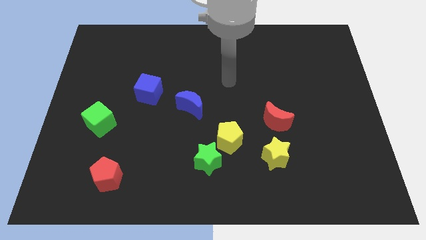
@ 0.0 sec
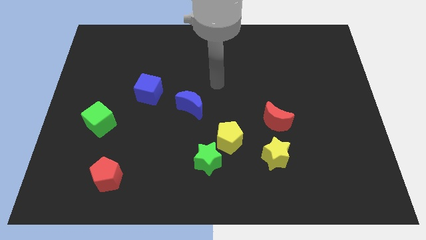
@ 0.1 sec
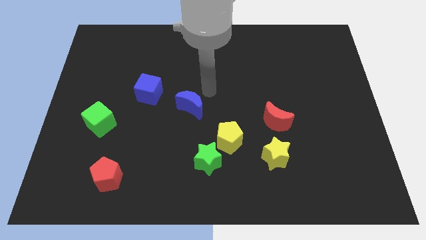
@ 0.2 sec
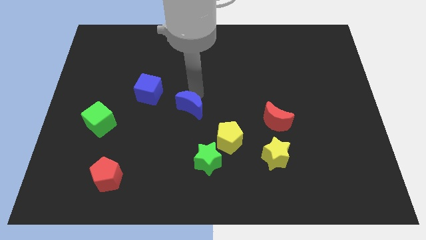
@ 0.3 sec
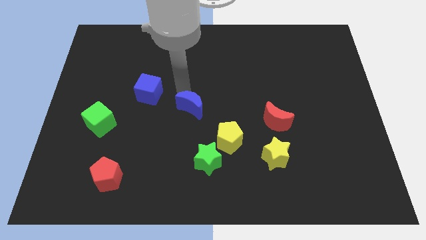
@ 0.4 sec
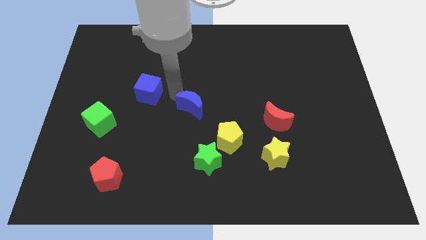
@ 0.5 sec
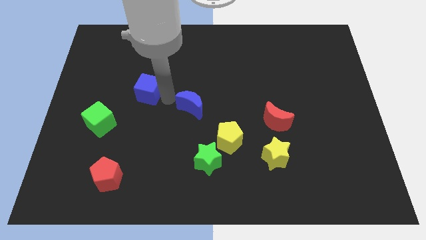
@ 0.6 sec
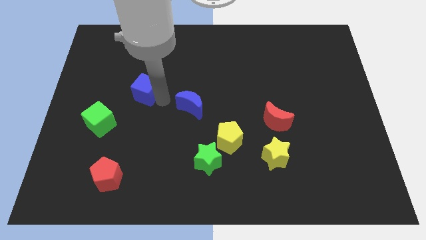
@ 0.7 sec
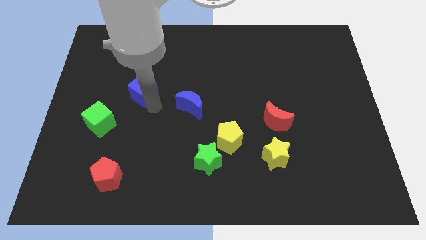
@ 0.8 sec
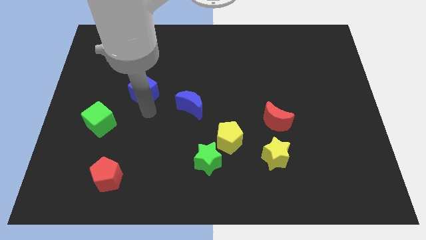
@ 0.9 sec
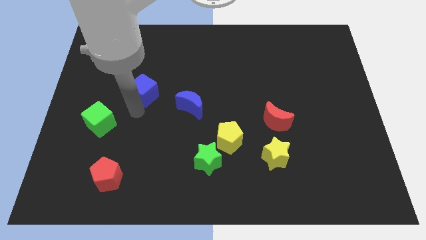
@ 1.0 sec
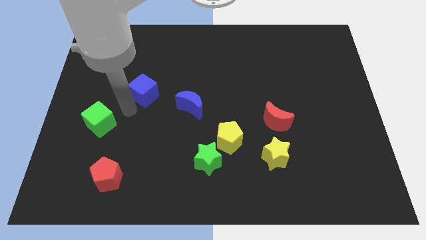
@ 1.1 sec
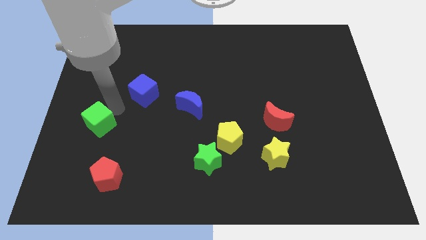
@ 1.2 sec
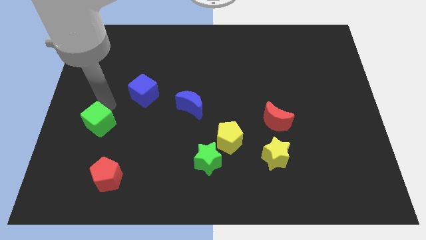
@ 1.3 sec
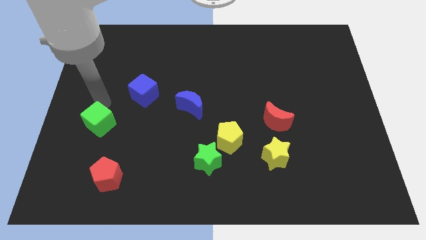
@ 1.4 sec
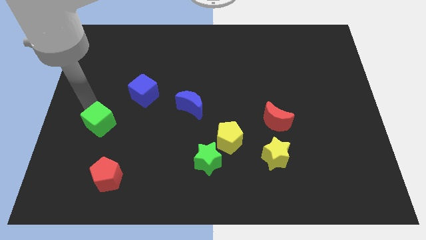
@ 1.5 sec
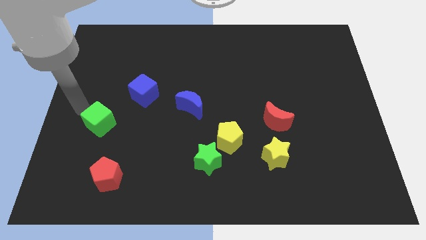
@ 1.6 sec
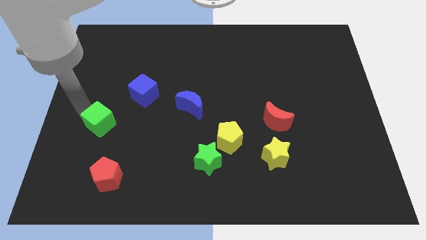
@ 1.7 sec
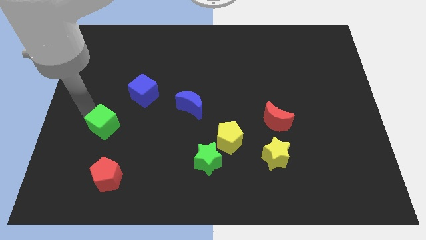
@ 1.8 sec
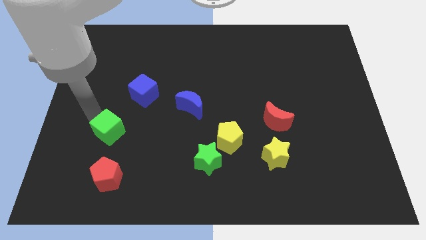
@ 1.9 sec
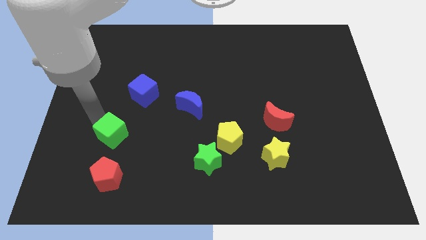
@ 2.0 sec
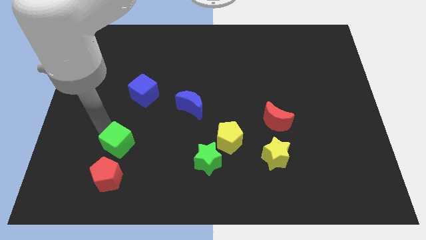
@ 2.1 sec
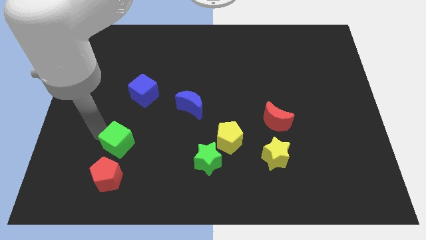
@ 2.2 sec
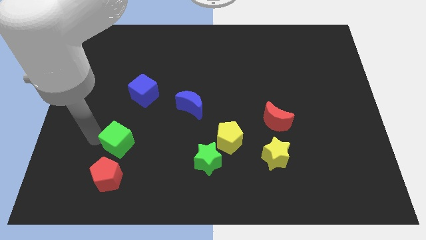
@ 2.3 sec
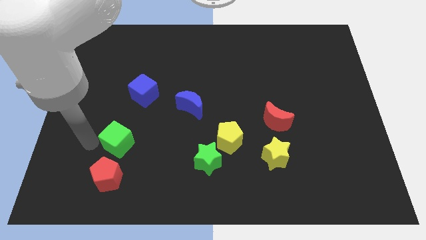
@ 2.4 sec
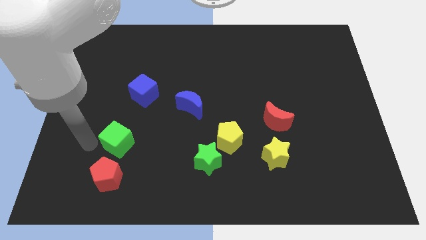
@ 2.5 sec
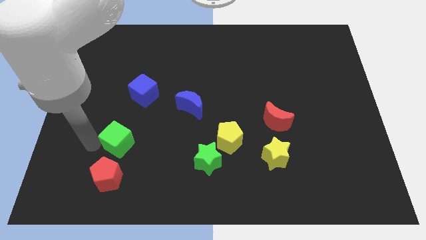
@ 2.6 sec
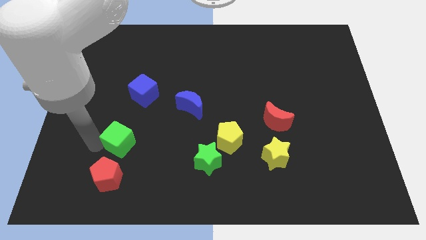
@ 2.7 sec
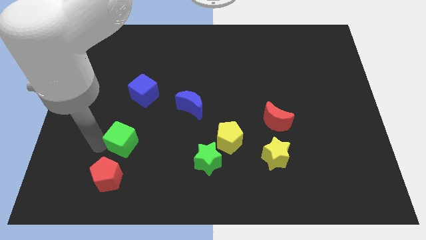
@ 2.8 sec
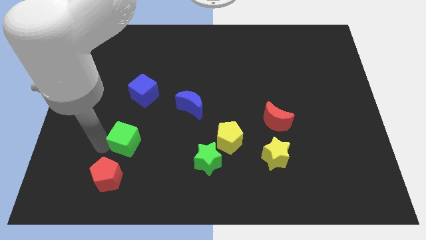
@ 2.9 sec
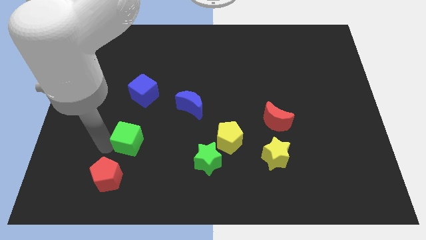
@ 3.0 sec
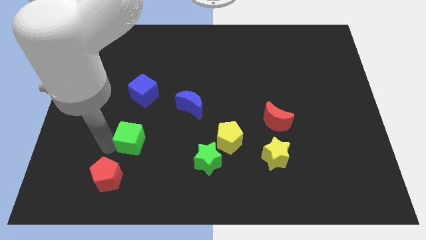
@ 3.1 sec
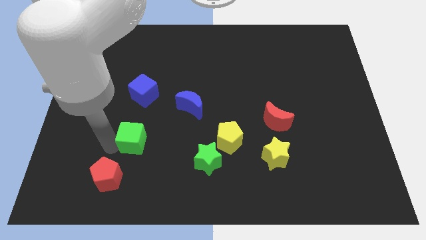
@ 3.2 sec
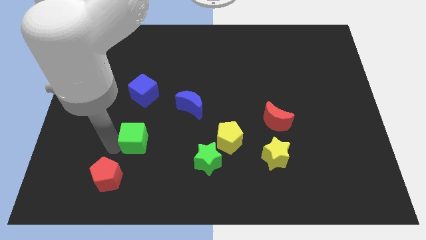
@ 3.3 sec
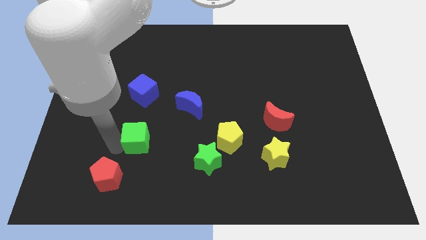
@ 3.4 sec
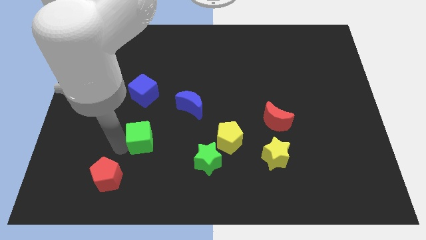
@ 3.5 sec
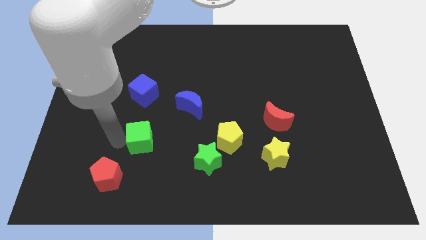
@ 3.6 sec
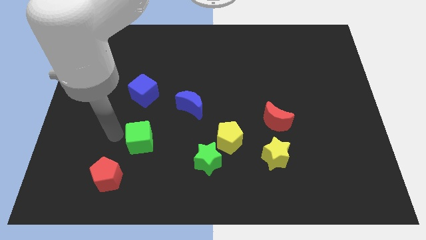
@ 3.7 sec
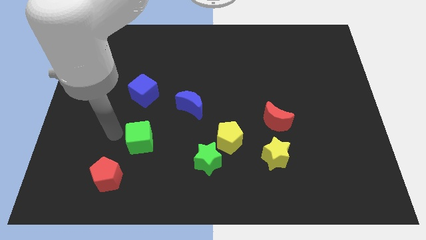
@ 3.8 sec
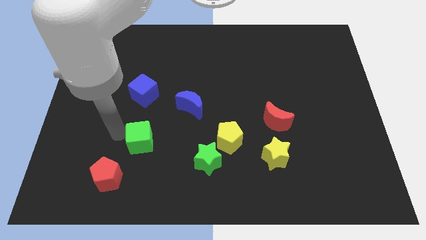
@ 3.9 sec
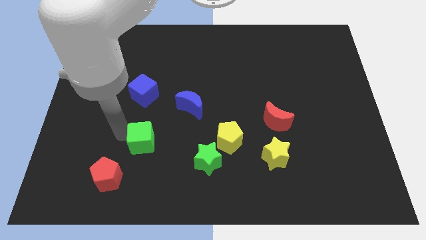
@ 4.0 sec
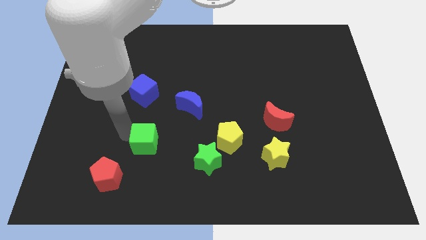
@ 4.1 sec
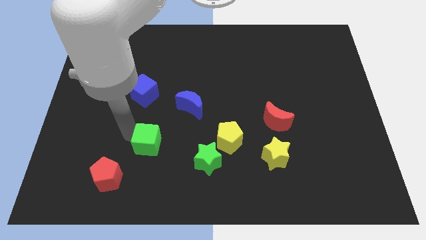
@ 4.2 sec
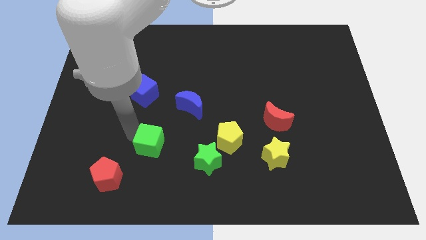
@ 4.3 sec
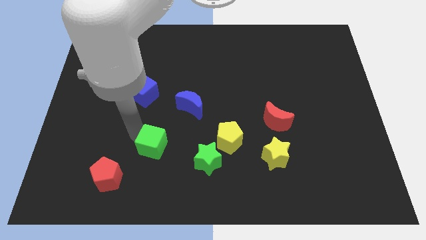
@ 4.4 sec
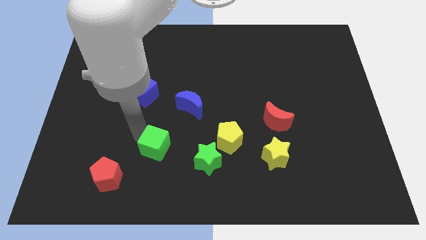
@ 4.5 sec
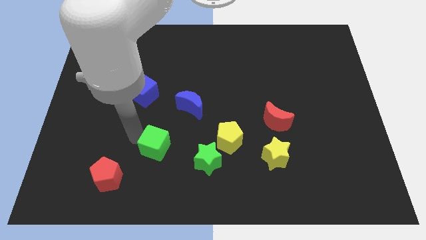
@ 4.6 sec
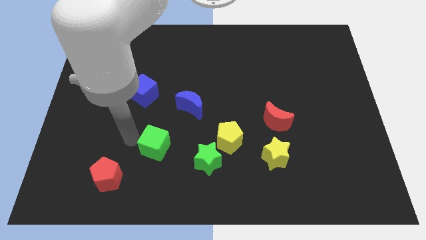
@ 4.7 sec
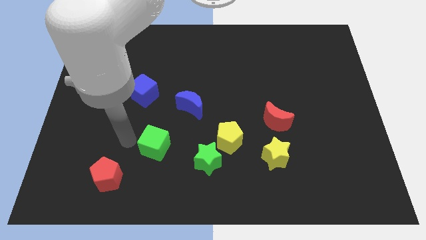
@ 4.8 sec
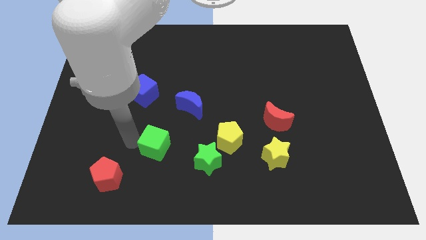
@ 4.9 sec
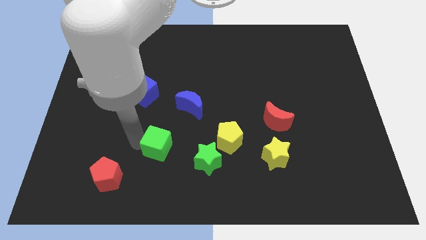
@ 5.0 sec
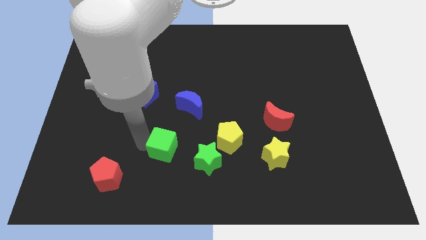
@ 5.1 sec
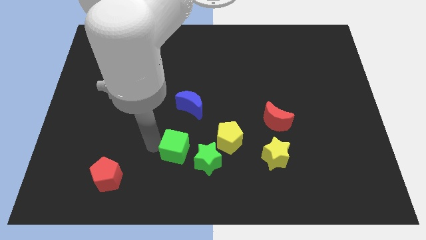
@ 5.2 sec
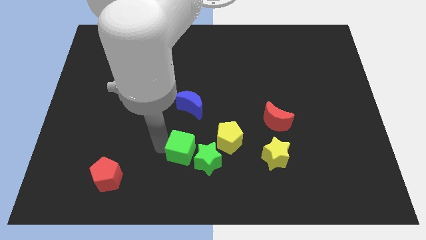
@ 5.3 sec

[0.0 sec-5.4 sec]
move the green cube next to the green star

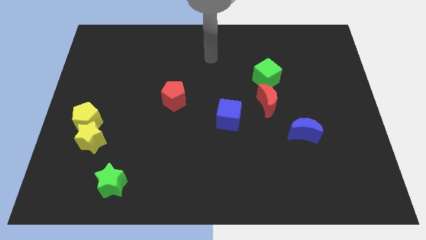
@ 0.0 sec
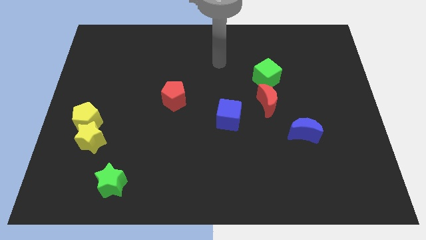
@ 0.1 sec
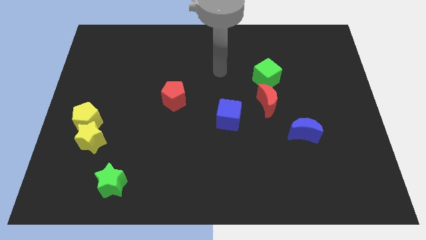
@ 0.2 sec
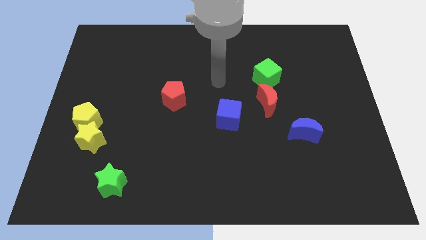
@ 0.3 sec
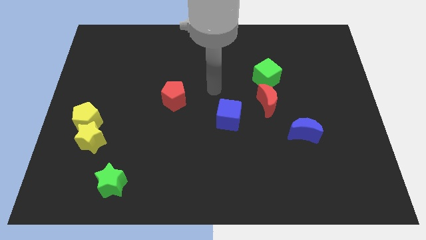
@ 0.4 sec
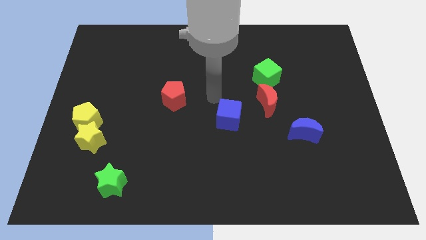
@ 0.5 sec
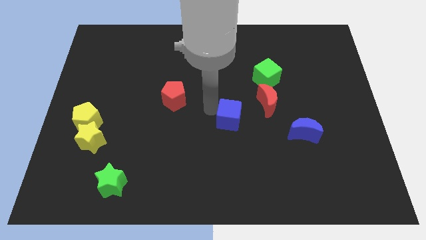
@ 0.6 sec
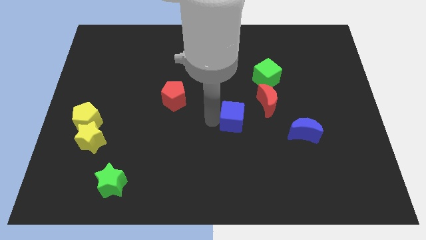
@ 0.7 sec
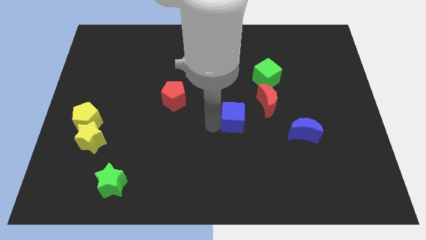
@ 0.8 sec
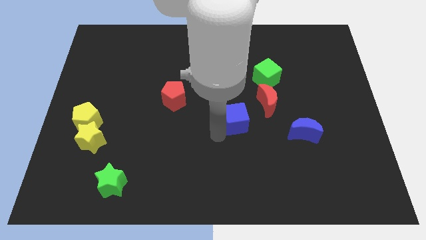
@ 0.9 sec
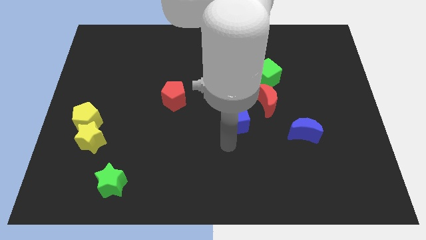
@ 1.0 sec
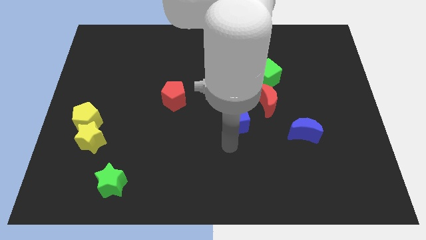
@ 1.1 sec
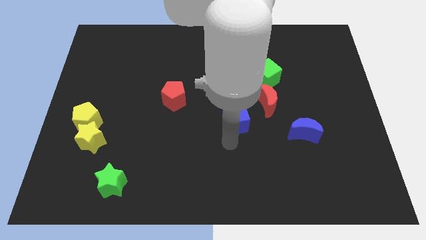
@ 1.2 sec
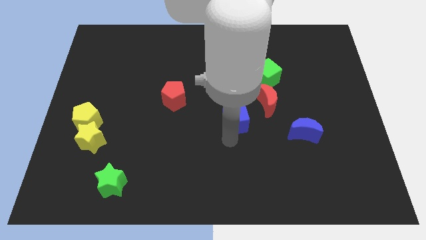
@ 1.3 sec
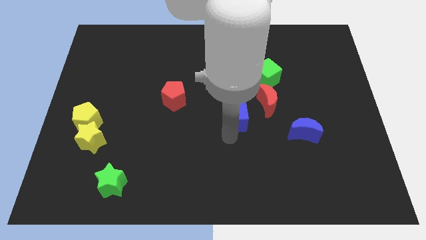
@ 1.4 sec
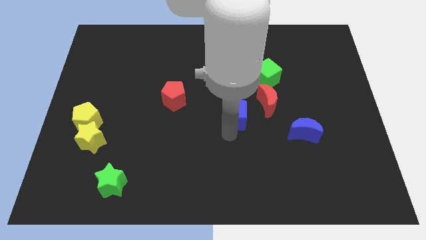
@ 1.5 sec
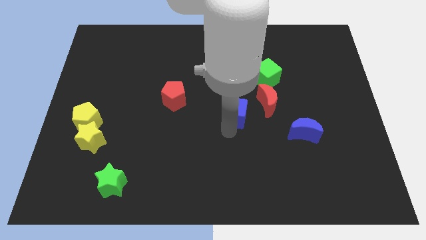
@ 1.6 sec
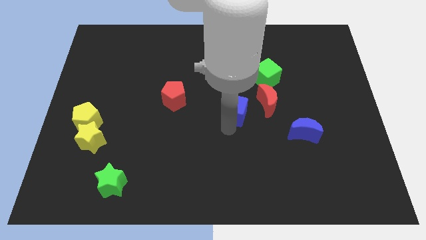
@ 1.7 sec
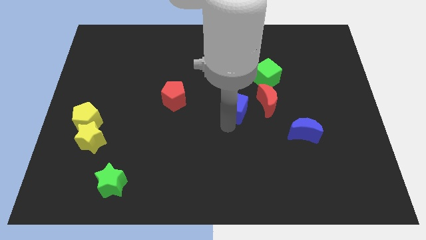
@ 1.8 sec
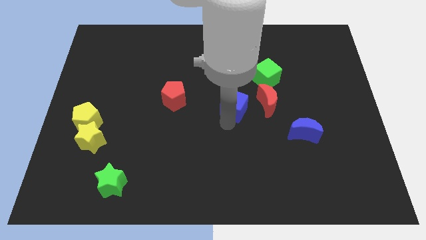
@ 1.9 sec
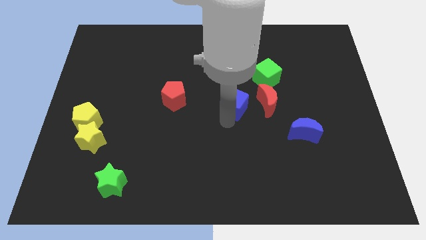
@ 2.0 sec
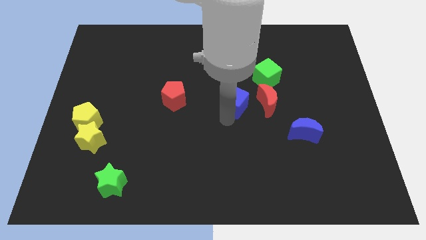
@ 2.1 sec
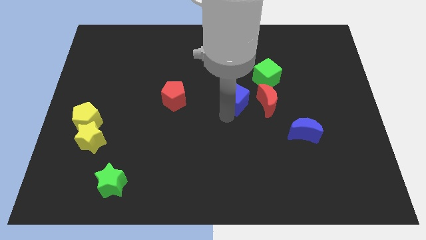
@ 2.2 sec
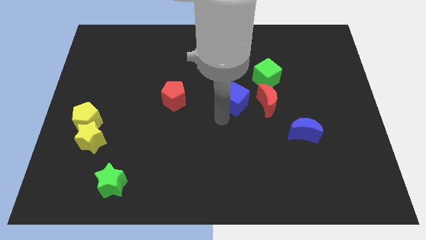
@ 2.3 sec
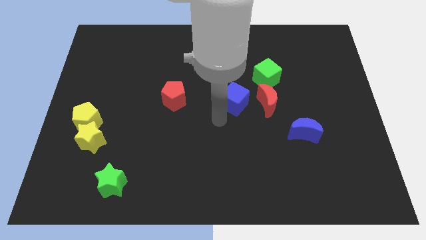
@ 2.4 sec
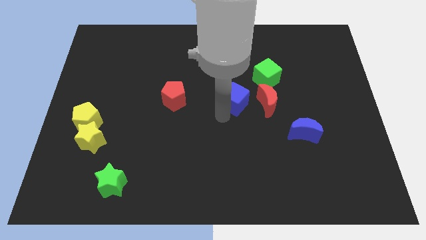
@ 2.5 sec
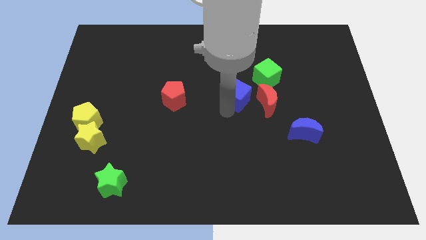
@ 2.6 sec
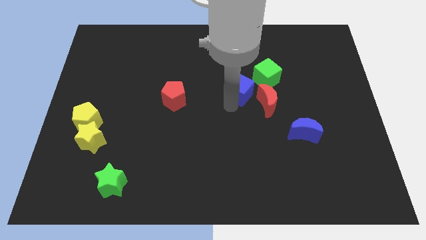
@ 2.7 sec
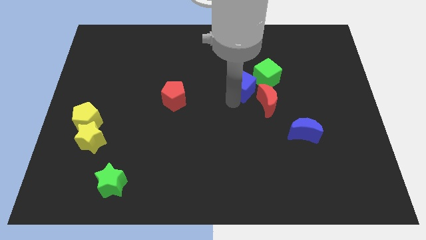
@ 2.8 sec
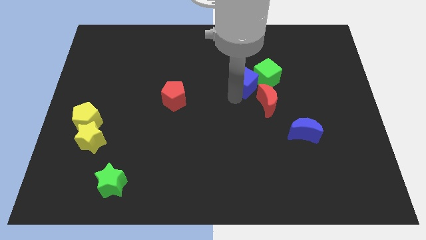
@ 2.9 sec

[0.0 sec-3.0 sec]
slide the blue cube towards the green cube
